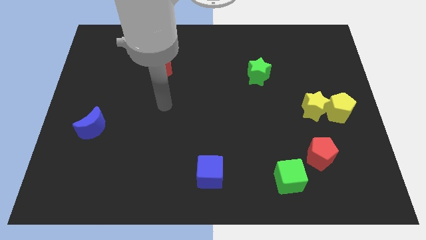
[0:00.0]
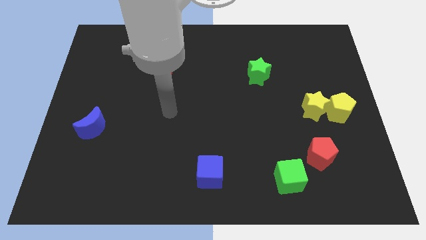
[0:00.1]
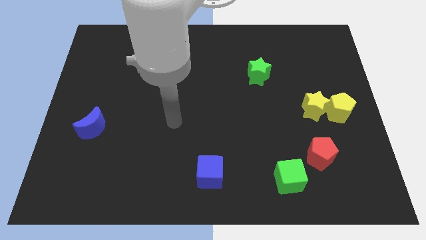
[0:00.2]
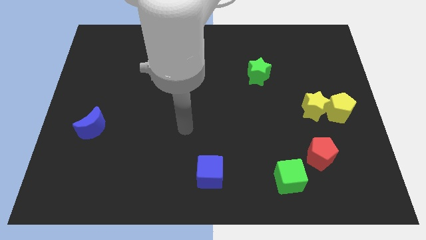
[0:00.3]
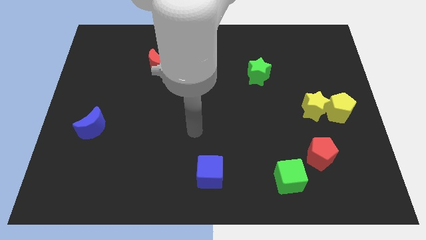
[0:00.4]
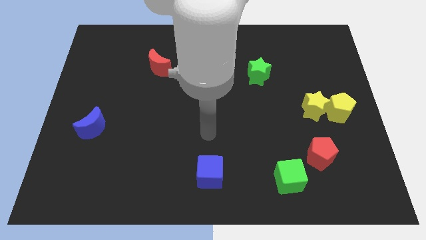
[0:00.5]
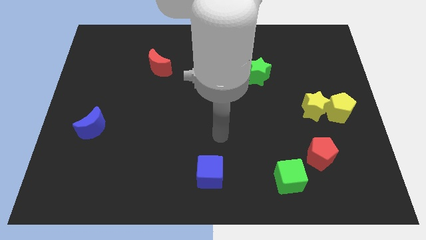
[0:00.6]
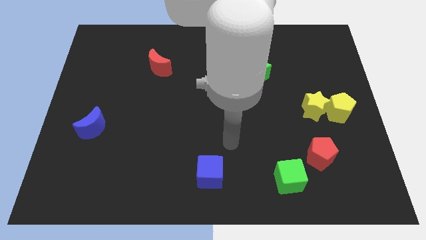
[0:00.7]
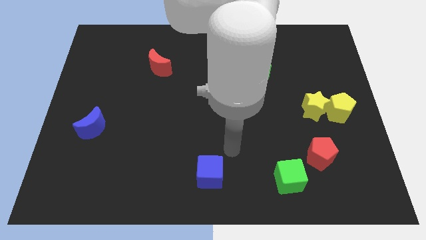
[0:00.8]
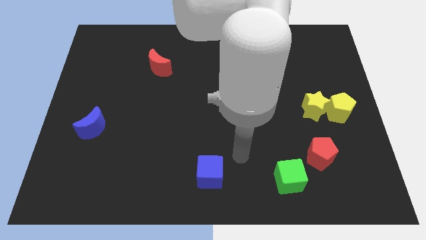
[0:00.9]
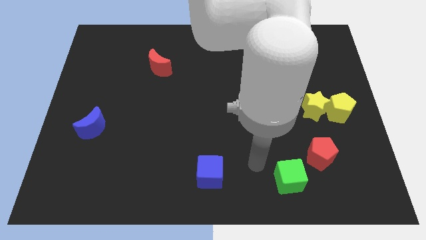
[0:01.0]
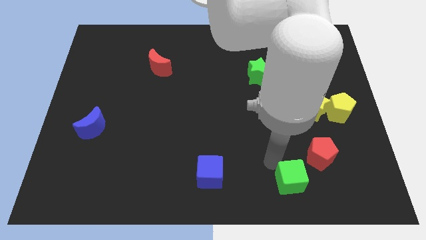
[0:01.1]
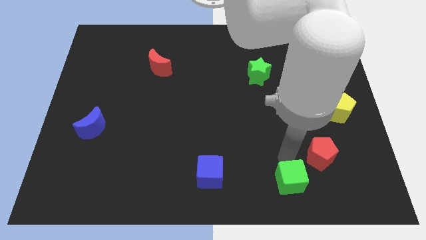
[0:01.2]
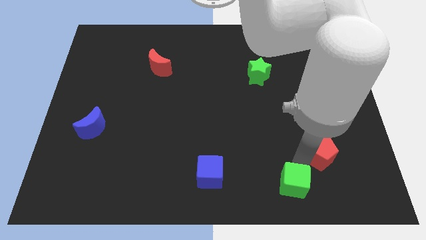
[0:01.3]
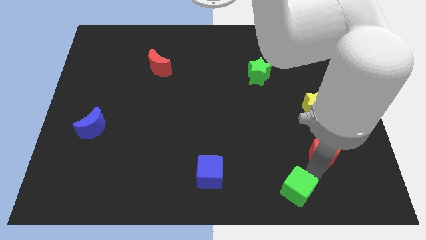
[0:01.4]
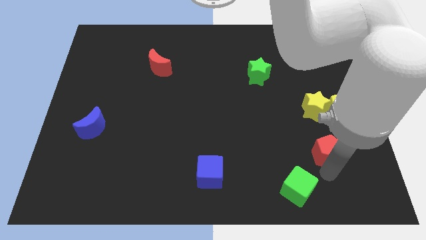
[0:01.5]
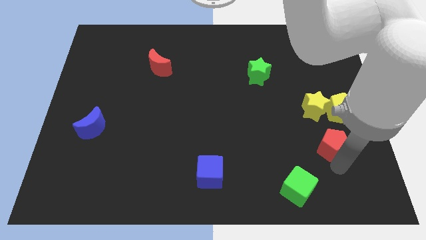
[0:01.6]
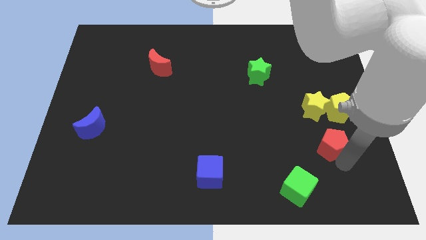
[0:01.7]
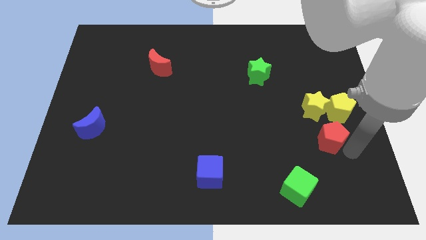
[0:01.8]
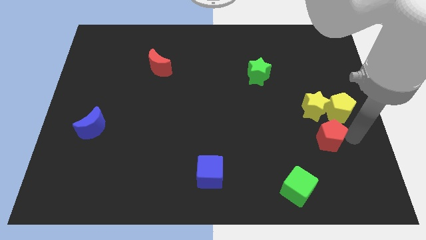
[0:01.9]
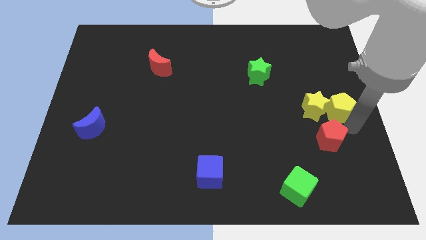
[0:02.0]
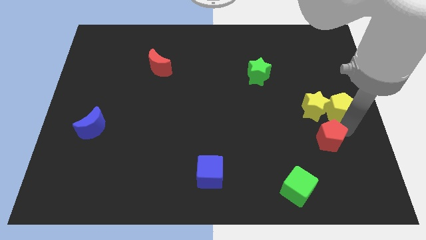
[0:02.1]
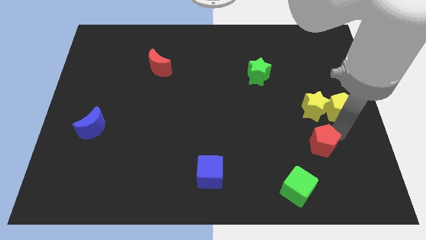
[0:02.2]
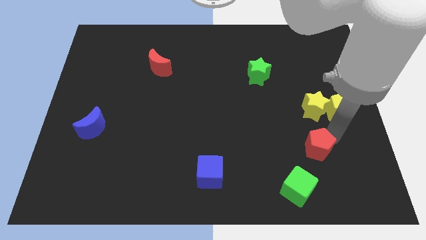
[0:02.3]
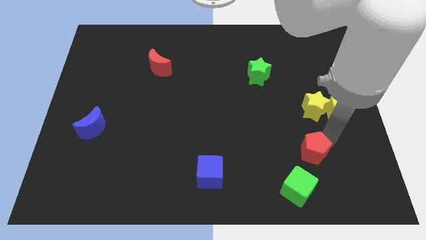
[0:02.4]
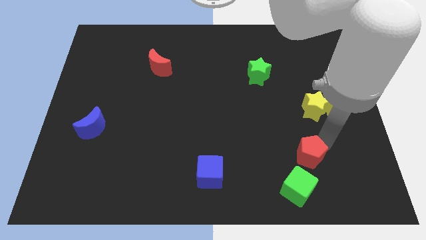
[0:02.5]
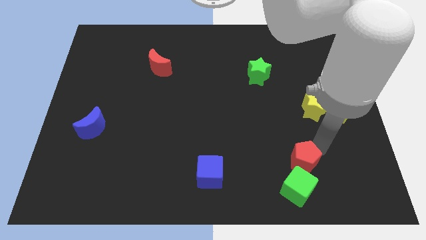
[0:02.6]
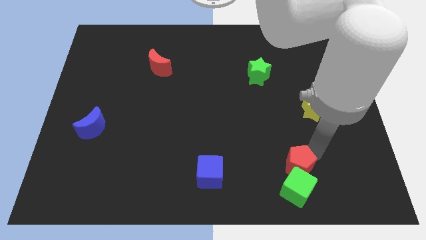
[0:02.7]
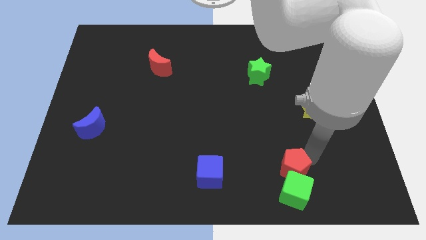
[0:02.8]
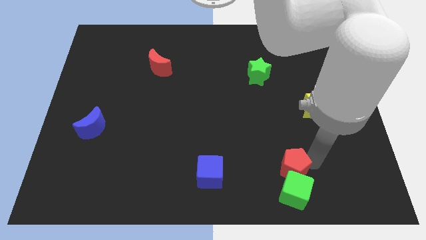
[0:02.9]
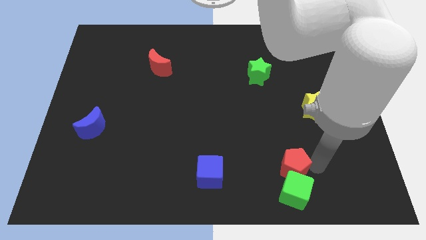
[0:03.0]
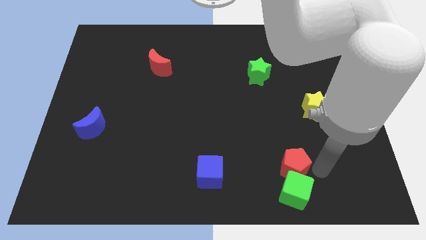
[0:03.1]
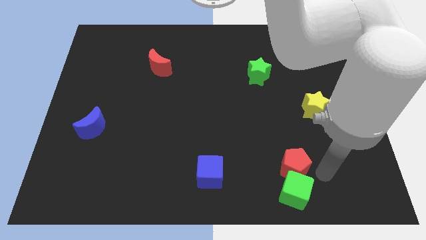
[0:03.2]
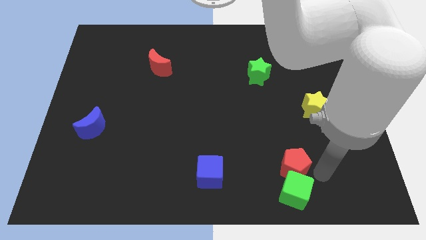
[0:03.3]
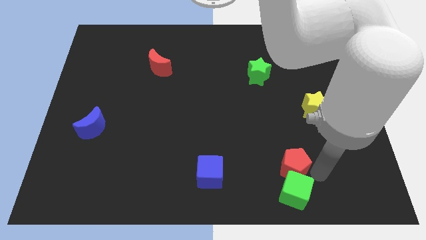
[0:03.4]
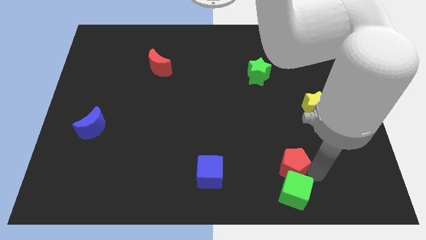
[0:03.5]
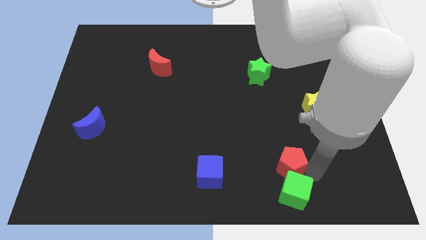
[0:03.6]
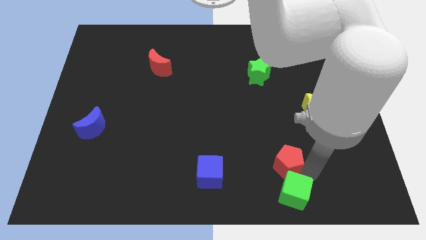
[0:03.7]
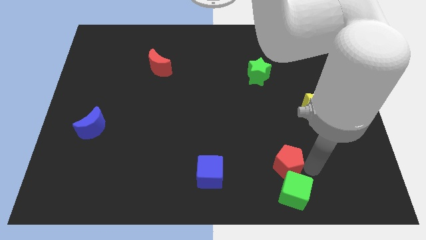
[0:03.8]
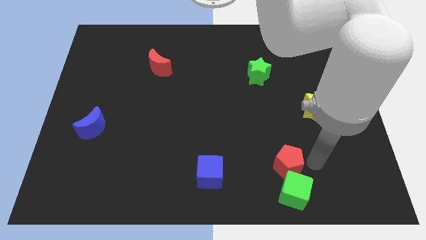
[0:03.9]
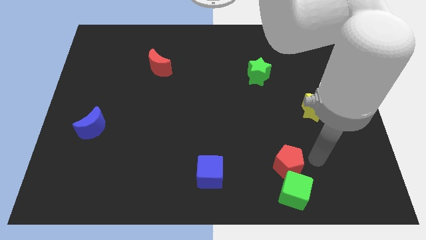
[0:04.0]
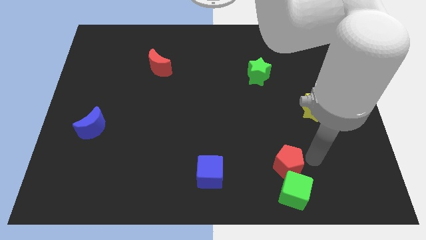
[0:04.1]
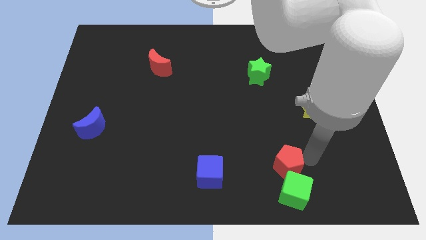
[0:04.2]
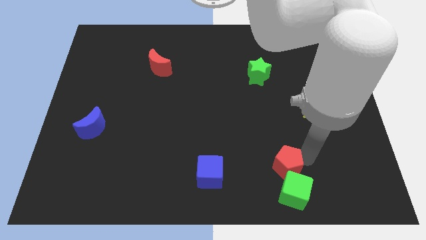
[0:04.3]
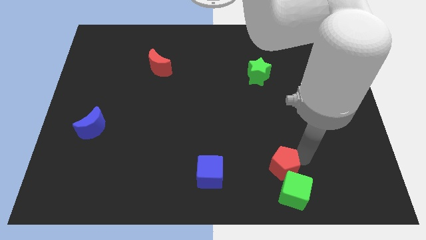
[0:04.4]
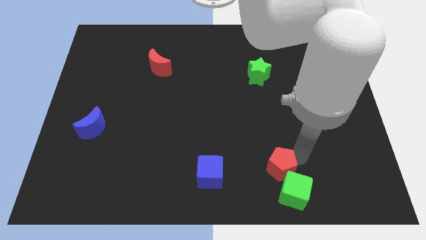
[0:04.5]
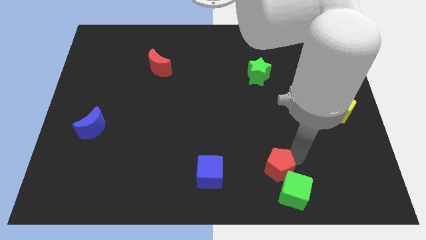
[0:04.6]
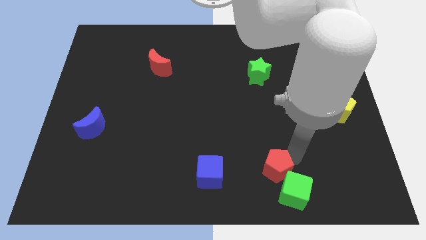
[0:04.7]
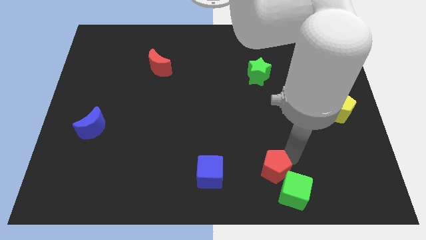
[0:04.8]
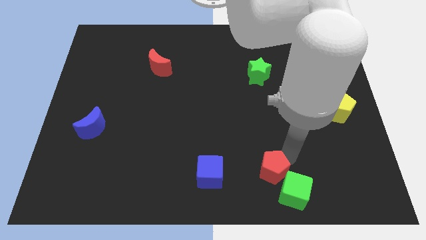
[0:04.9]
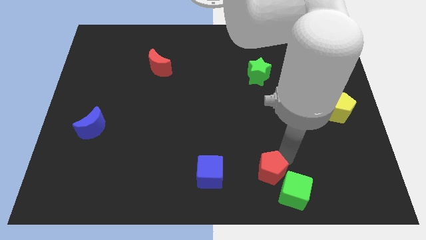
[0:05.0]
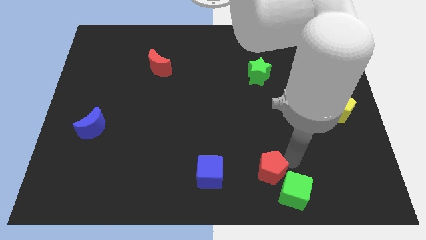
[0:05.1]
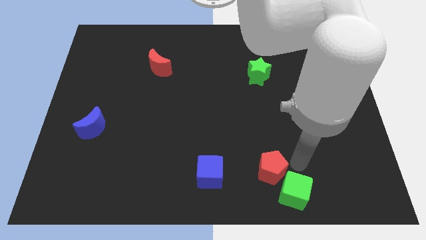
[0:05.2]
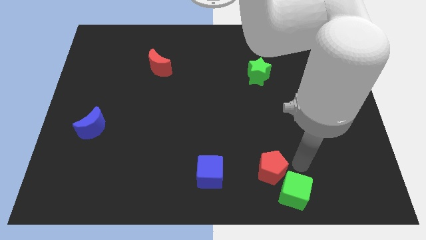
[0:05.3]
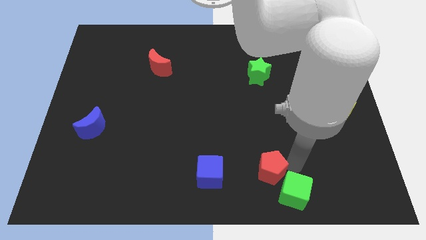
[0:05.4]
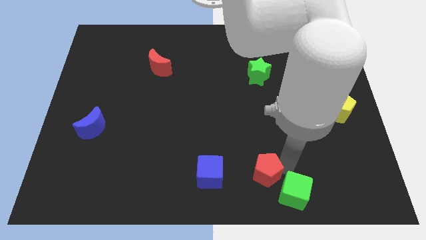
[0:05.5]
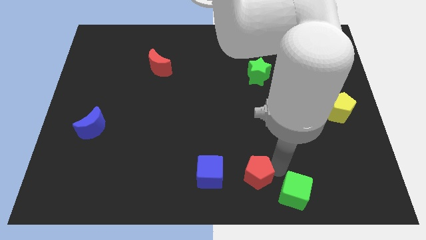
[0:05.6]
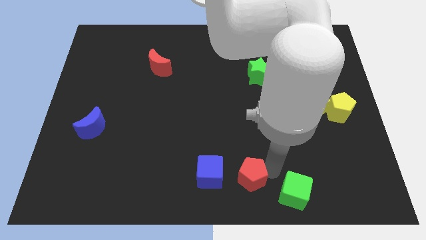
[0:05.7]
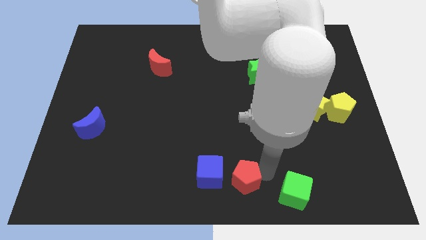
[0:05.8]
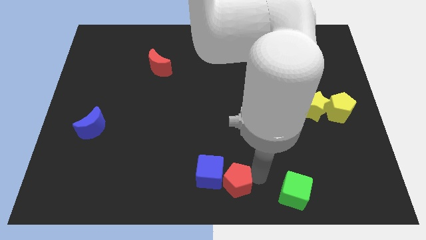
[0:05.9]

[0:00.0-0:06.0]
put the red pentagon towards the blue cube

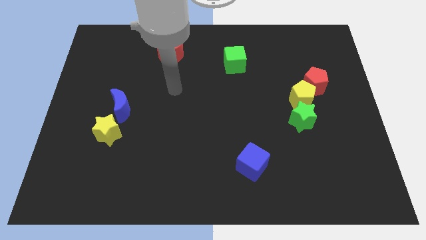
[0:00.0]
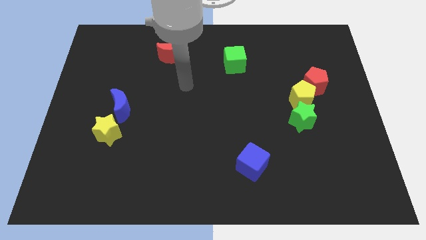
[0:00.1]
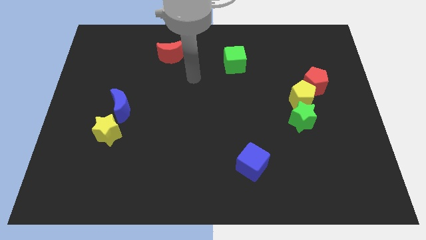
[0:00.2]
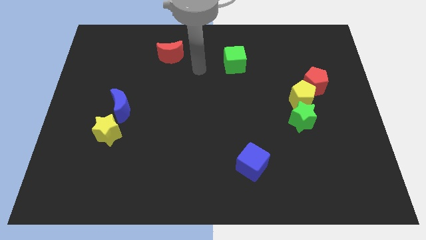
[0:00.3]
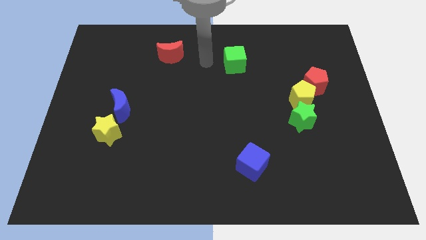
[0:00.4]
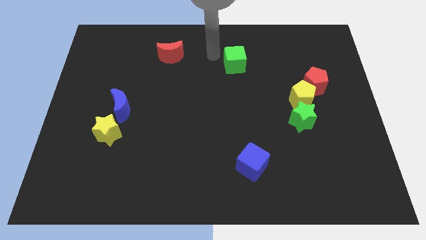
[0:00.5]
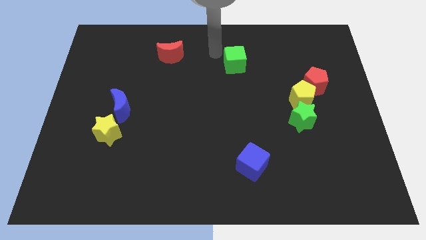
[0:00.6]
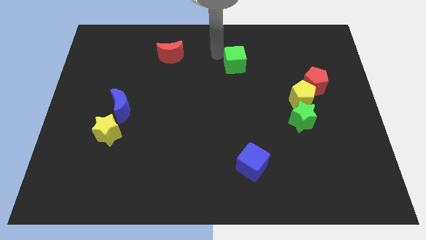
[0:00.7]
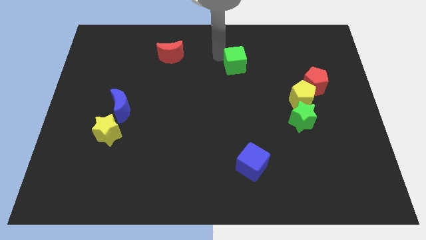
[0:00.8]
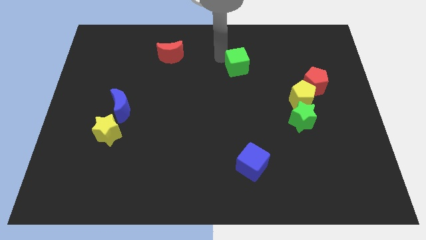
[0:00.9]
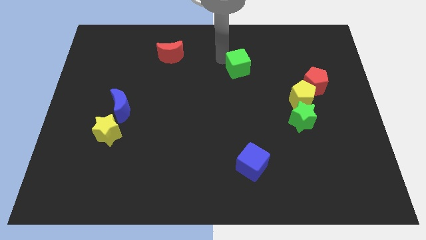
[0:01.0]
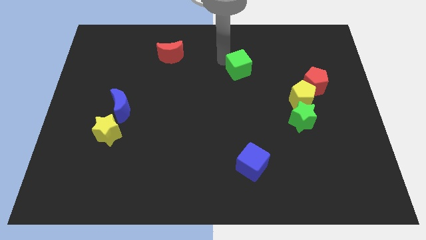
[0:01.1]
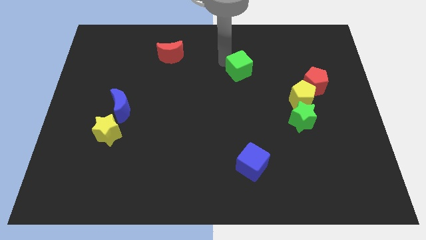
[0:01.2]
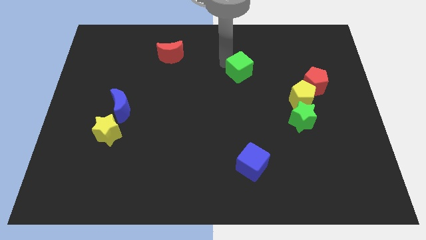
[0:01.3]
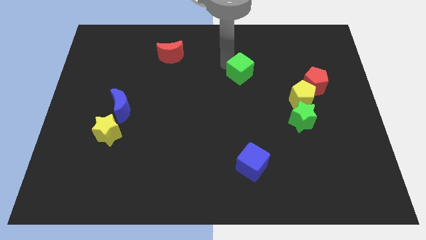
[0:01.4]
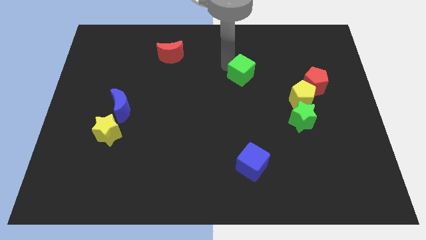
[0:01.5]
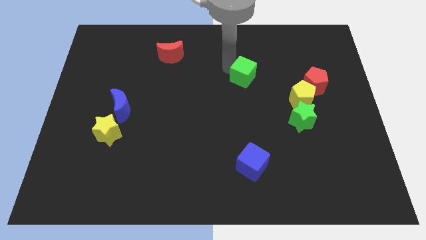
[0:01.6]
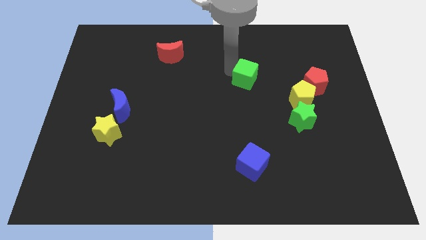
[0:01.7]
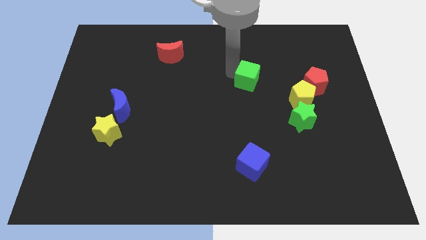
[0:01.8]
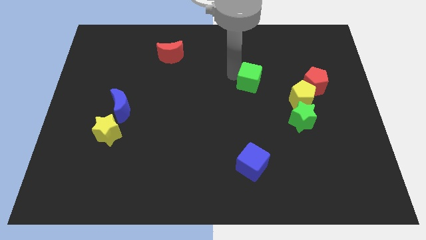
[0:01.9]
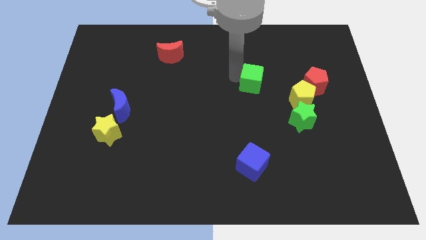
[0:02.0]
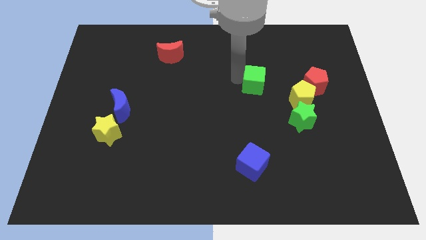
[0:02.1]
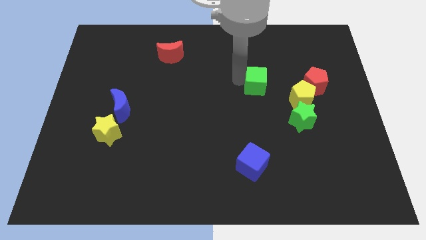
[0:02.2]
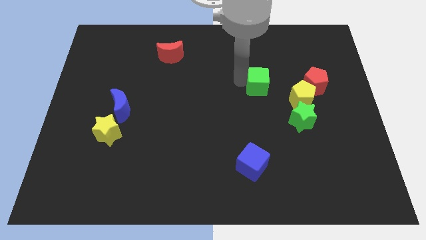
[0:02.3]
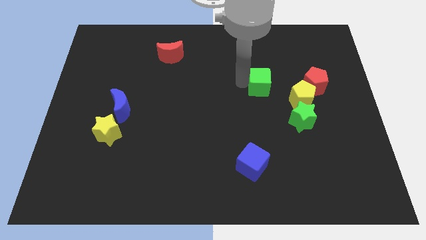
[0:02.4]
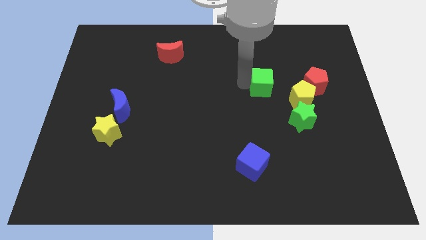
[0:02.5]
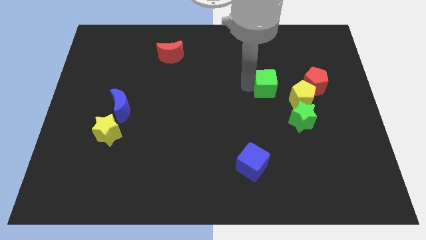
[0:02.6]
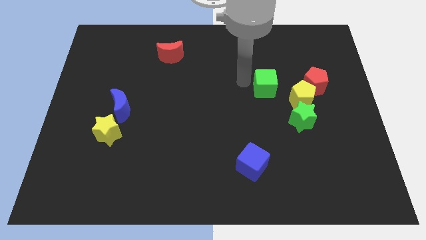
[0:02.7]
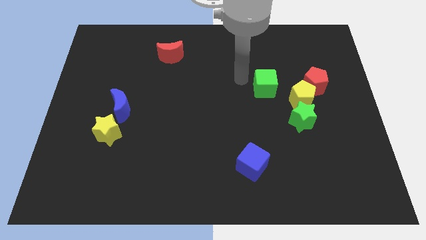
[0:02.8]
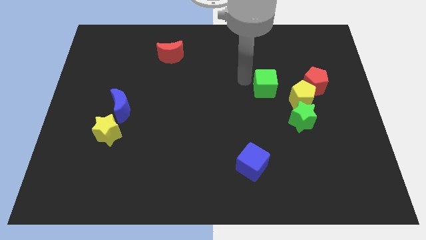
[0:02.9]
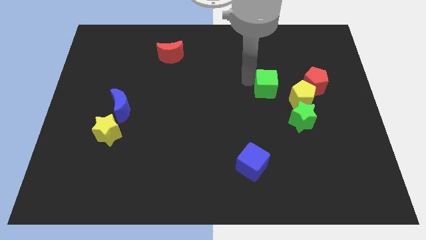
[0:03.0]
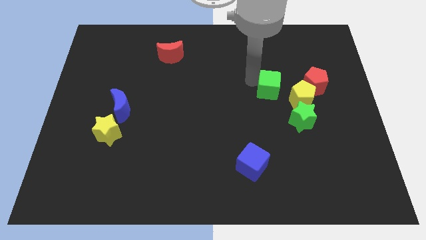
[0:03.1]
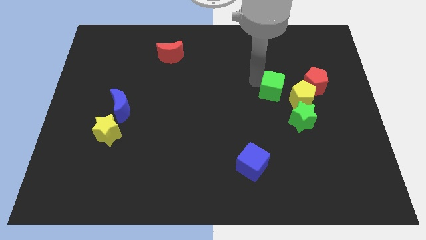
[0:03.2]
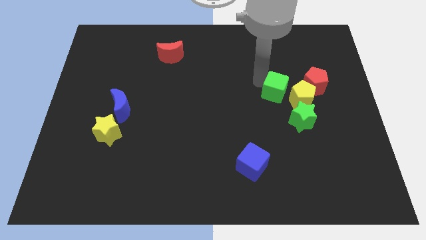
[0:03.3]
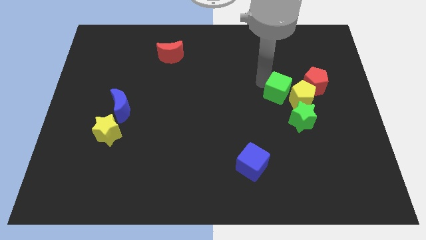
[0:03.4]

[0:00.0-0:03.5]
slide the green cube next to the yellow pentagon
